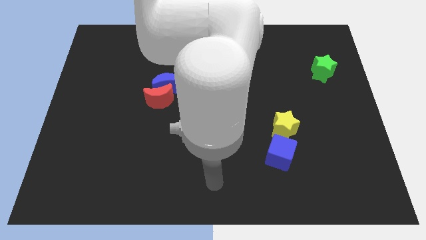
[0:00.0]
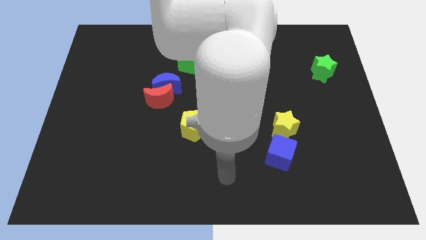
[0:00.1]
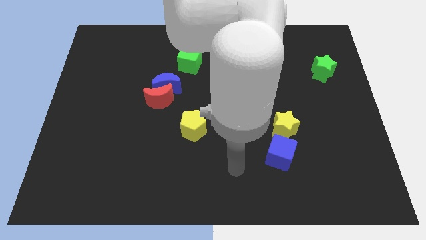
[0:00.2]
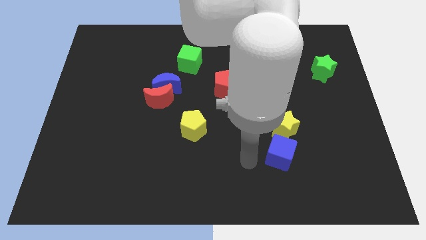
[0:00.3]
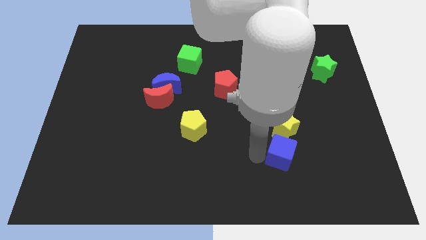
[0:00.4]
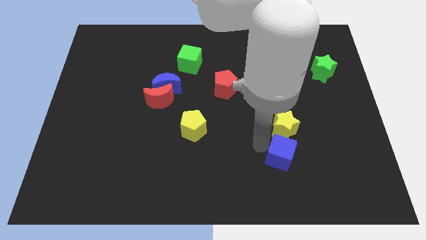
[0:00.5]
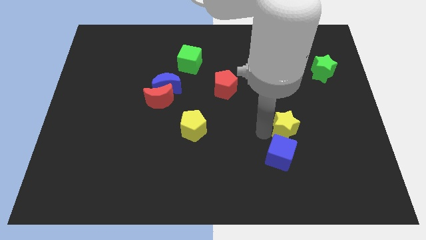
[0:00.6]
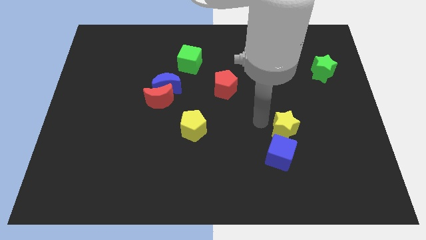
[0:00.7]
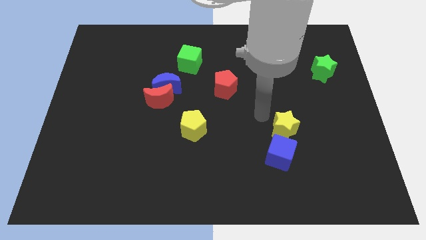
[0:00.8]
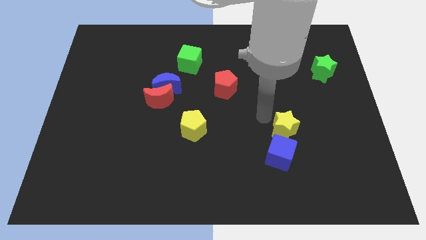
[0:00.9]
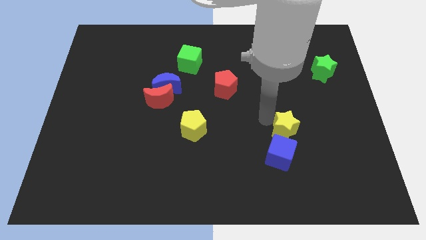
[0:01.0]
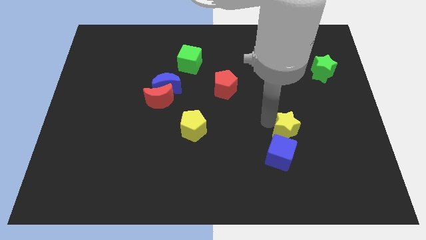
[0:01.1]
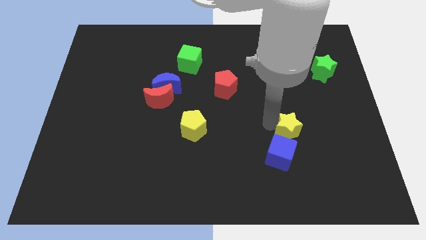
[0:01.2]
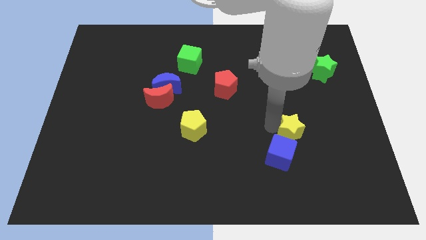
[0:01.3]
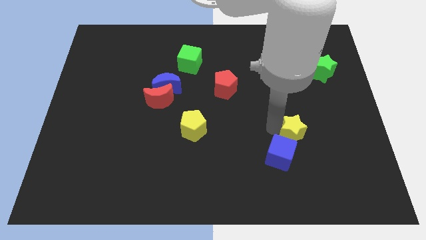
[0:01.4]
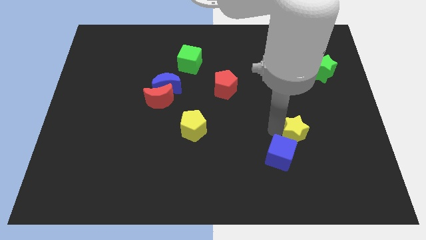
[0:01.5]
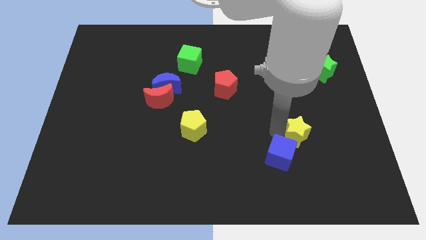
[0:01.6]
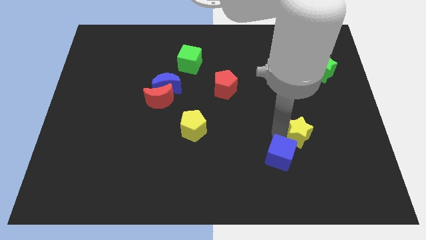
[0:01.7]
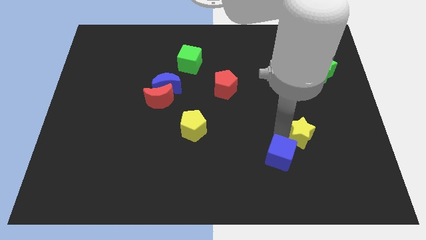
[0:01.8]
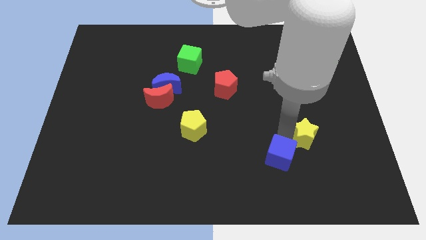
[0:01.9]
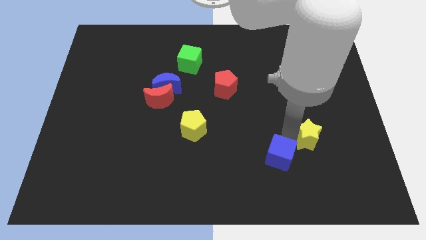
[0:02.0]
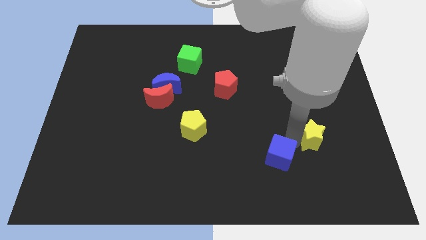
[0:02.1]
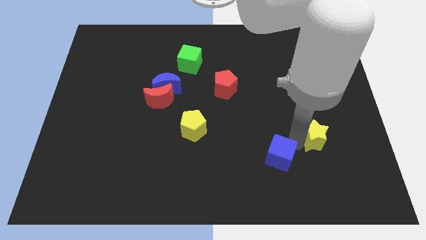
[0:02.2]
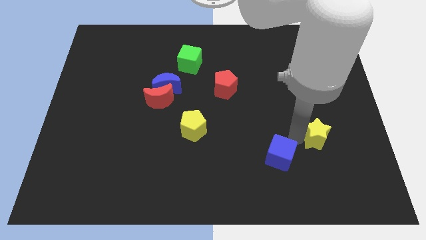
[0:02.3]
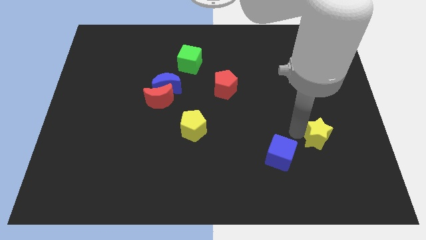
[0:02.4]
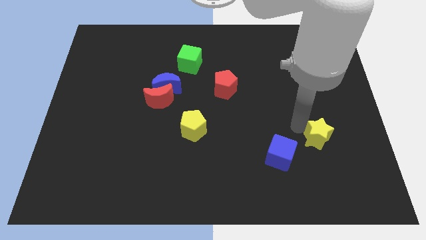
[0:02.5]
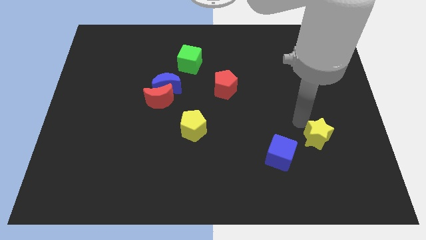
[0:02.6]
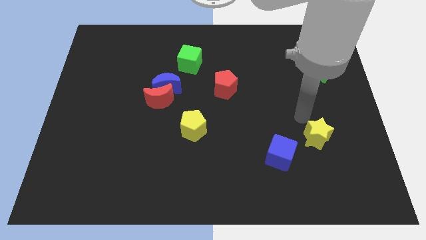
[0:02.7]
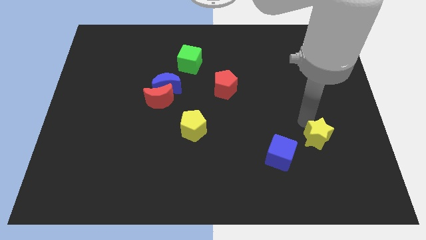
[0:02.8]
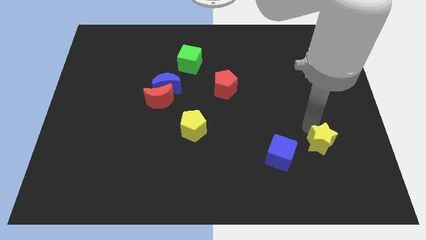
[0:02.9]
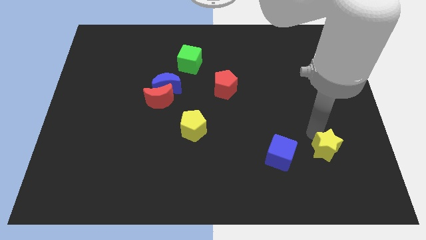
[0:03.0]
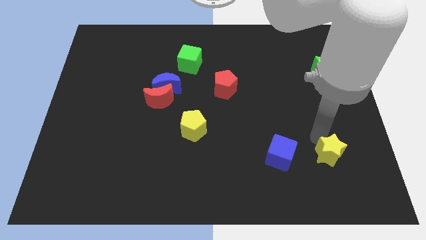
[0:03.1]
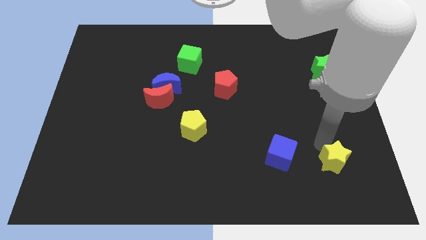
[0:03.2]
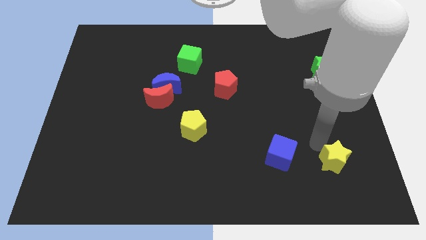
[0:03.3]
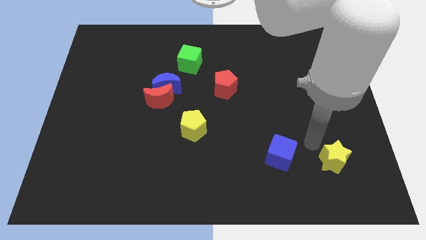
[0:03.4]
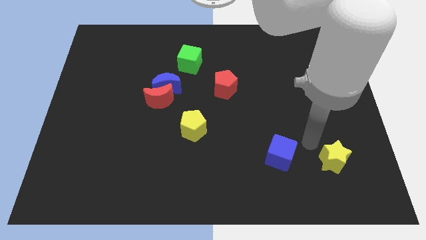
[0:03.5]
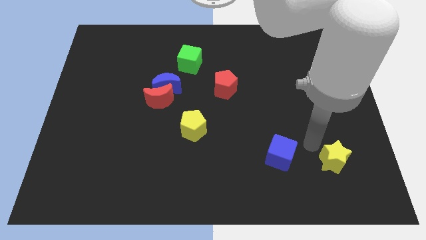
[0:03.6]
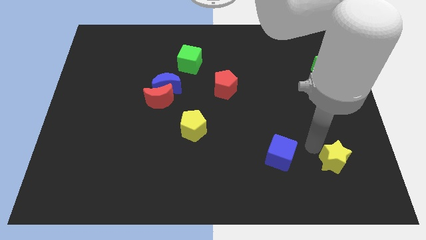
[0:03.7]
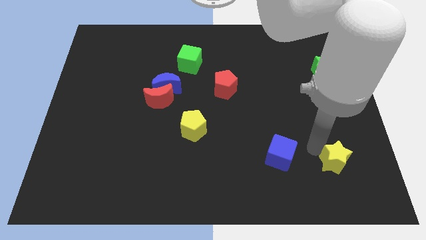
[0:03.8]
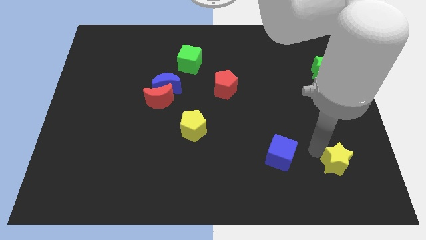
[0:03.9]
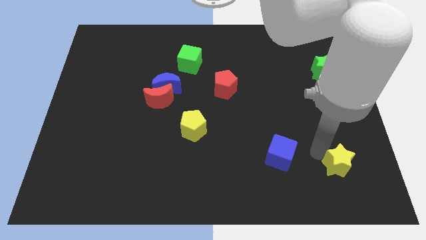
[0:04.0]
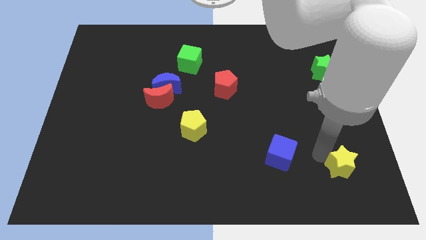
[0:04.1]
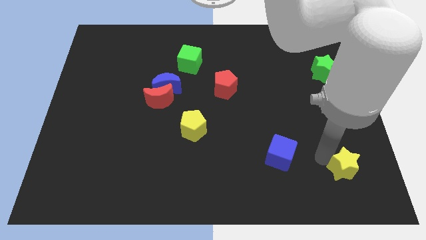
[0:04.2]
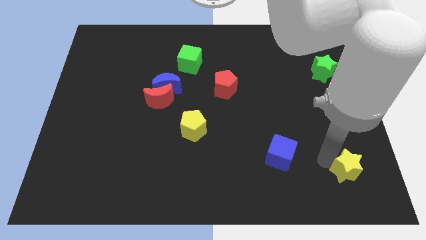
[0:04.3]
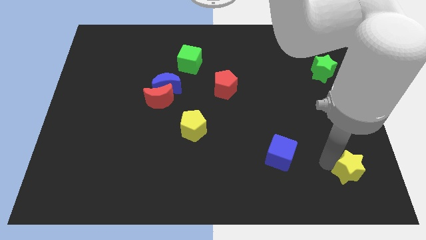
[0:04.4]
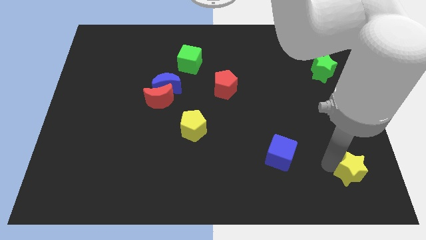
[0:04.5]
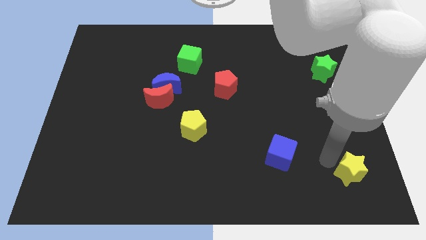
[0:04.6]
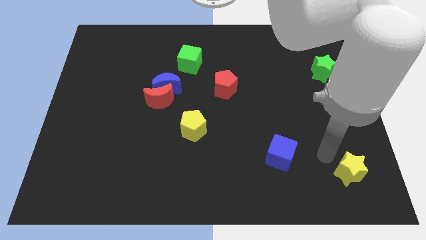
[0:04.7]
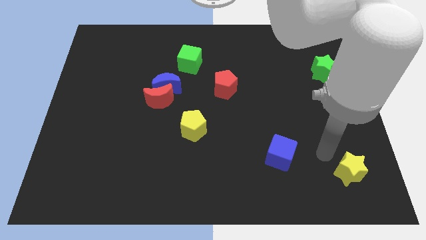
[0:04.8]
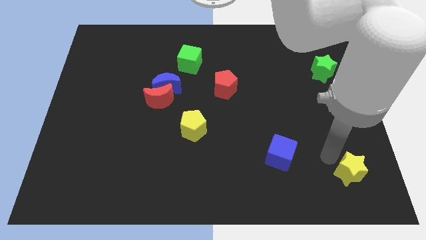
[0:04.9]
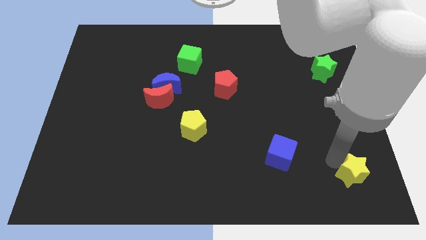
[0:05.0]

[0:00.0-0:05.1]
move the yellow star to the bottom right of the board

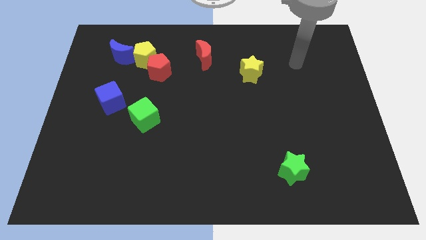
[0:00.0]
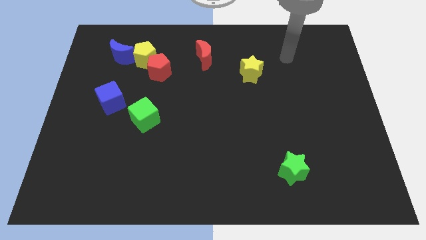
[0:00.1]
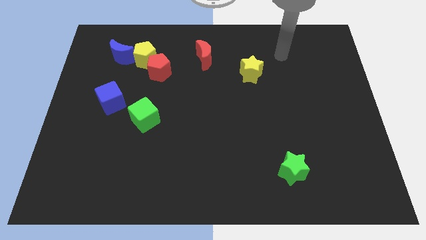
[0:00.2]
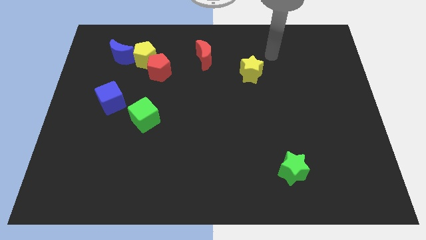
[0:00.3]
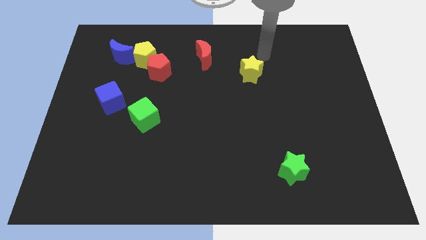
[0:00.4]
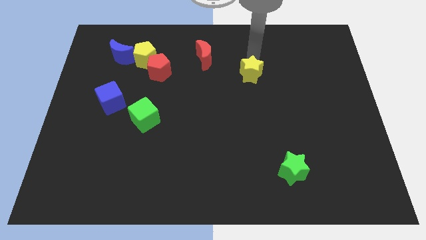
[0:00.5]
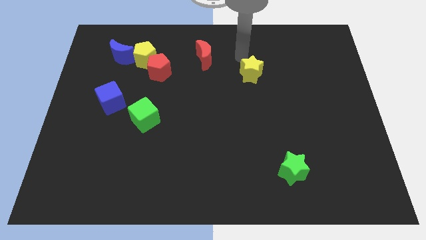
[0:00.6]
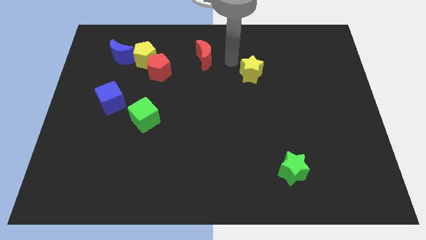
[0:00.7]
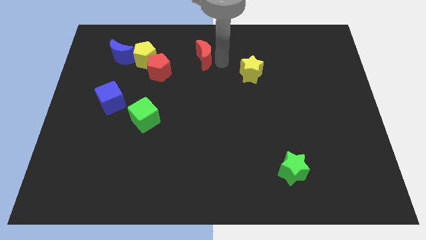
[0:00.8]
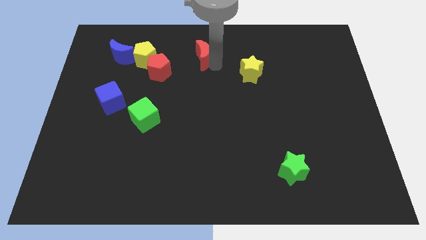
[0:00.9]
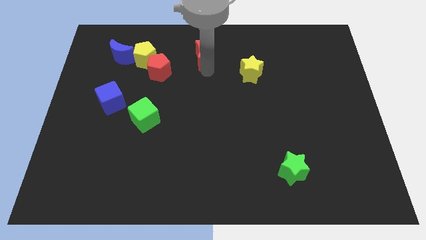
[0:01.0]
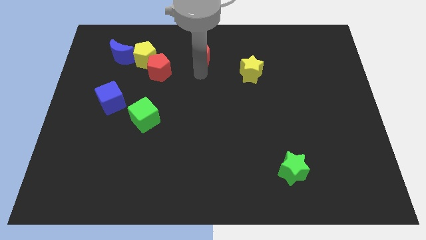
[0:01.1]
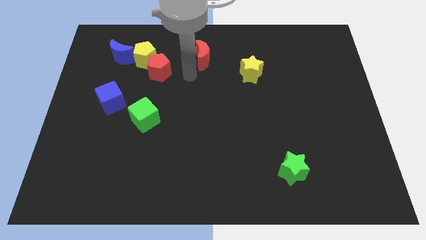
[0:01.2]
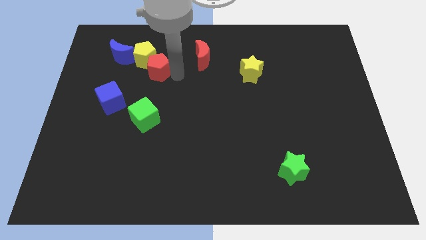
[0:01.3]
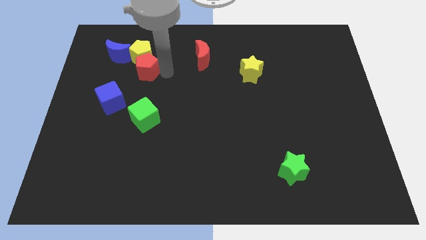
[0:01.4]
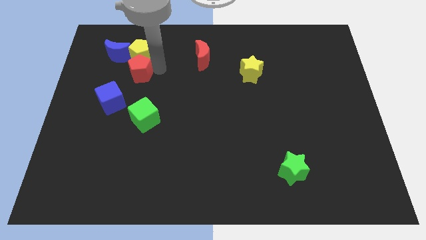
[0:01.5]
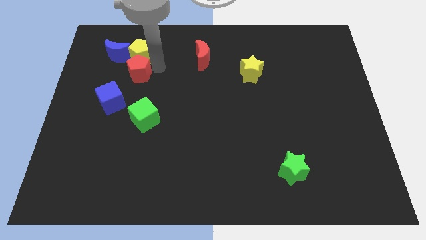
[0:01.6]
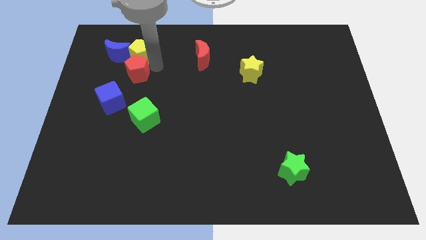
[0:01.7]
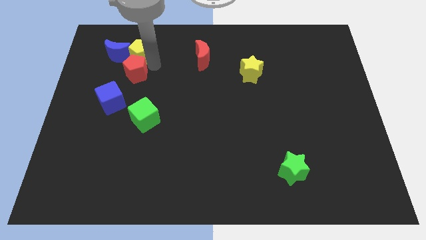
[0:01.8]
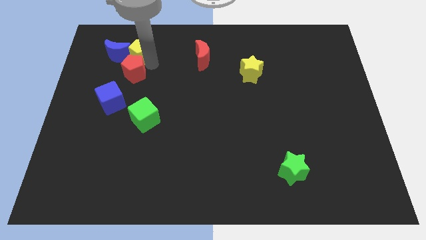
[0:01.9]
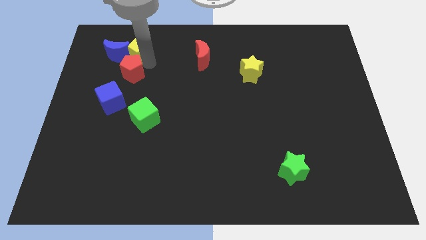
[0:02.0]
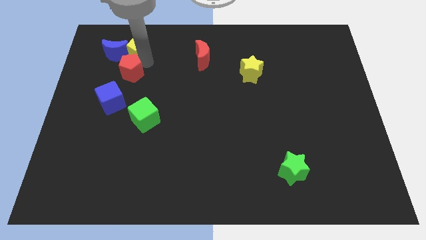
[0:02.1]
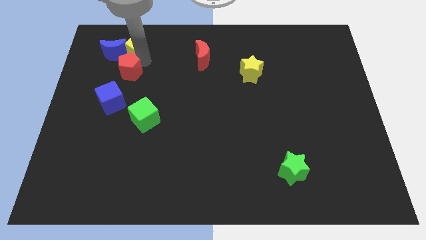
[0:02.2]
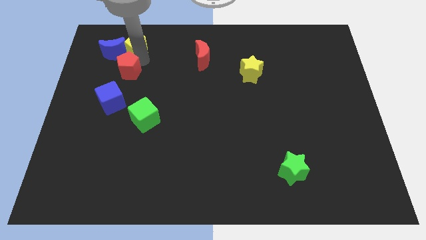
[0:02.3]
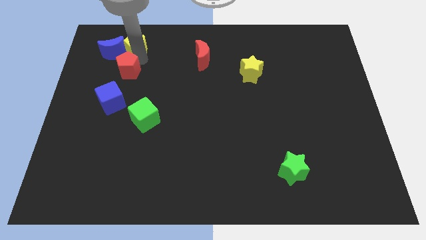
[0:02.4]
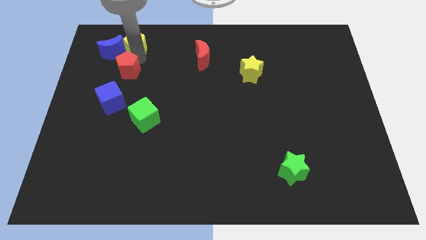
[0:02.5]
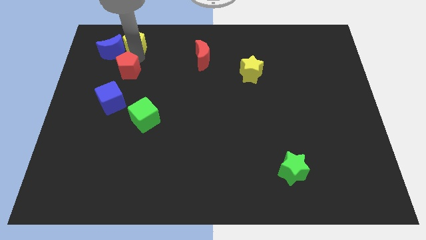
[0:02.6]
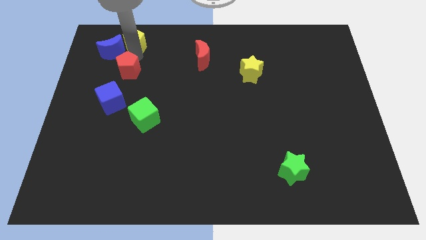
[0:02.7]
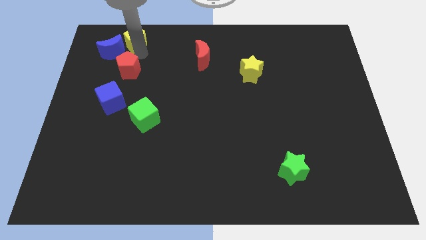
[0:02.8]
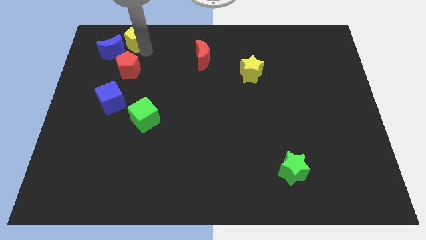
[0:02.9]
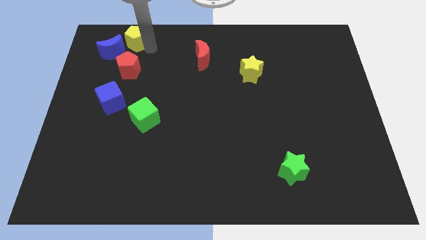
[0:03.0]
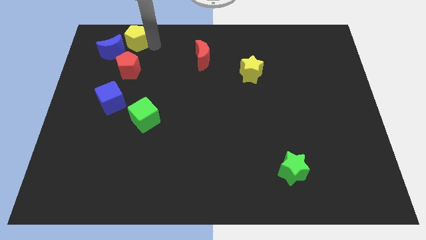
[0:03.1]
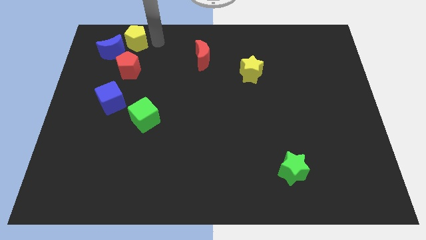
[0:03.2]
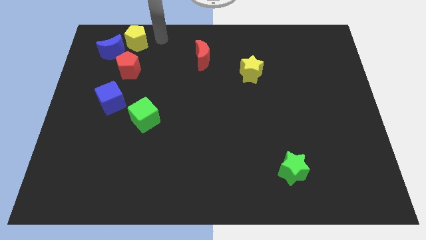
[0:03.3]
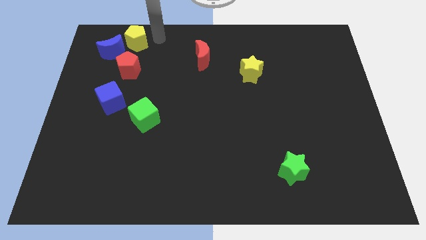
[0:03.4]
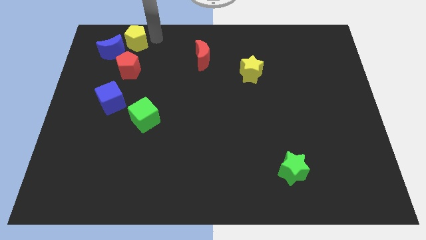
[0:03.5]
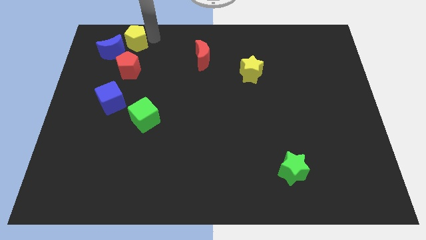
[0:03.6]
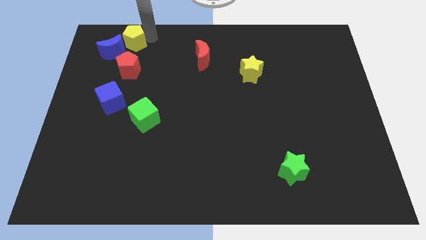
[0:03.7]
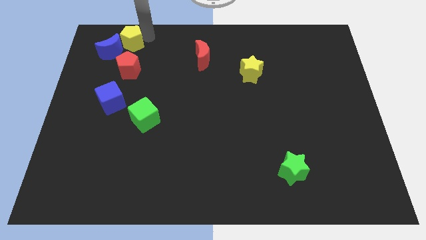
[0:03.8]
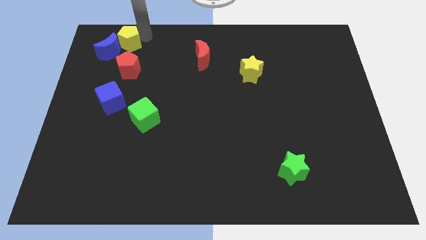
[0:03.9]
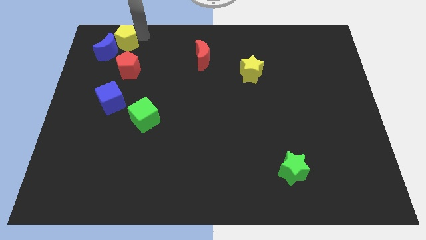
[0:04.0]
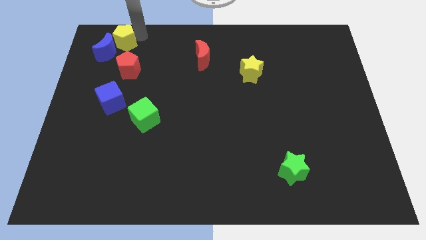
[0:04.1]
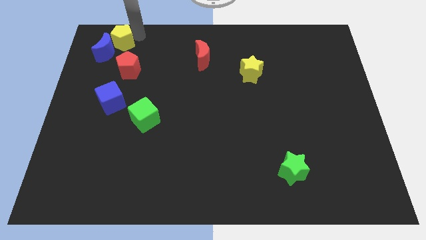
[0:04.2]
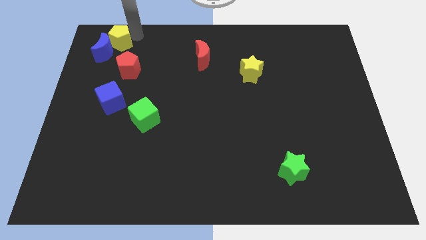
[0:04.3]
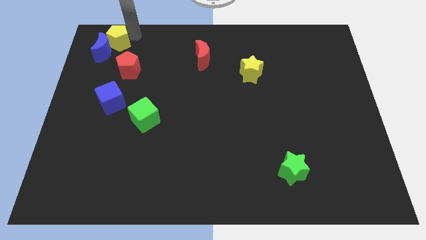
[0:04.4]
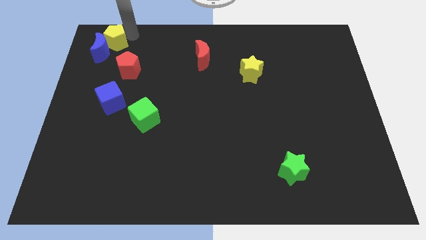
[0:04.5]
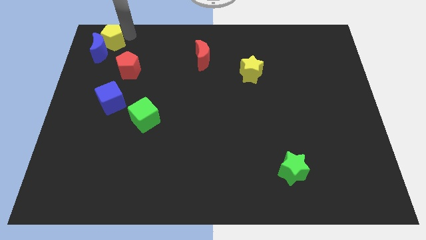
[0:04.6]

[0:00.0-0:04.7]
push the yellow pentagon to the top left of the board
